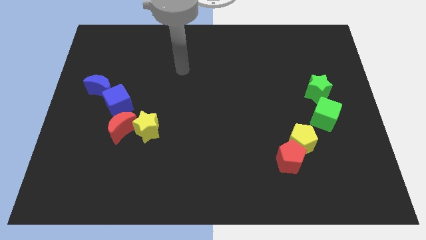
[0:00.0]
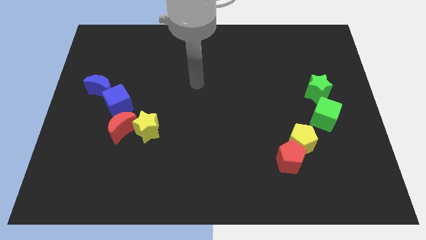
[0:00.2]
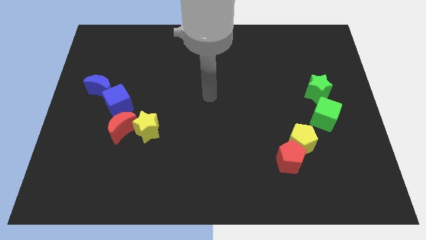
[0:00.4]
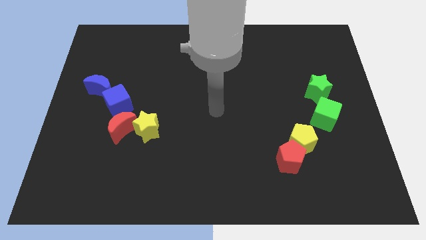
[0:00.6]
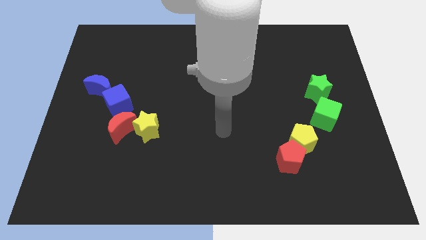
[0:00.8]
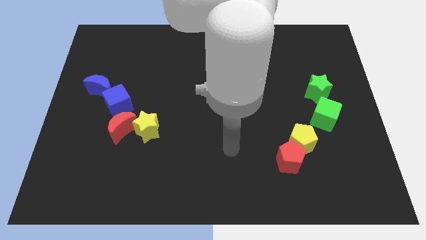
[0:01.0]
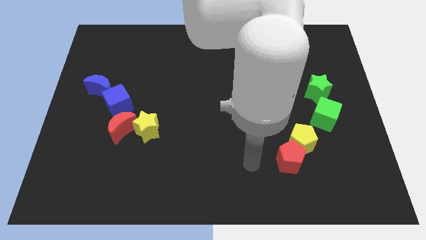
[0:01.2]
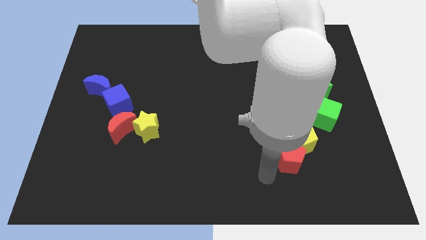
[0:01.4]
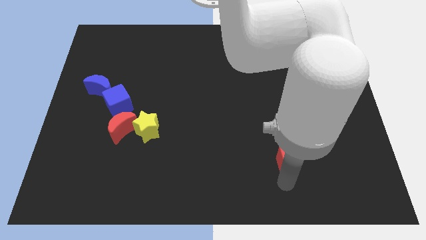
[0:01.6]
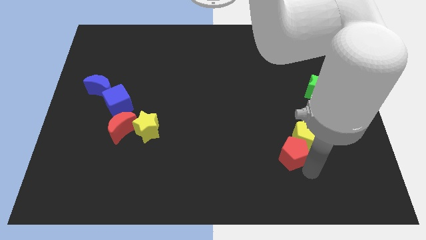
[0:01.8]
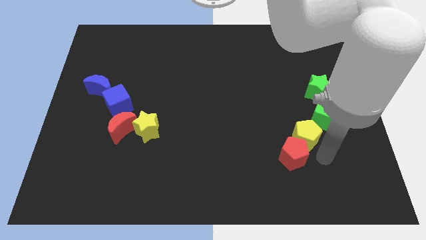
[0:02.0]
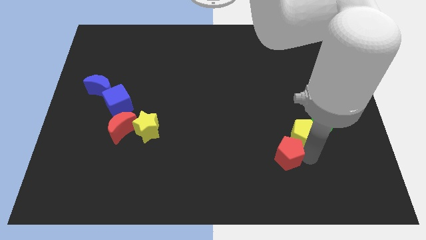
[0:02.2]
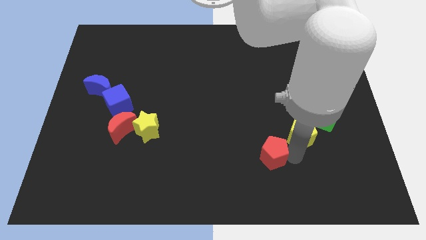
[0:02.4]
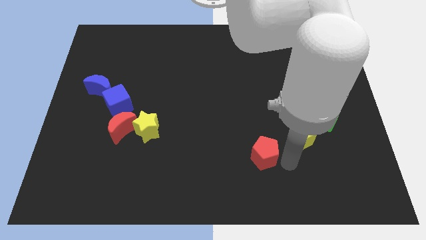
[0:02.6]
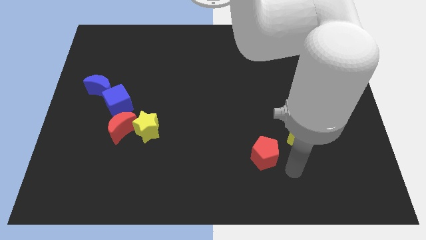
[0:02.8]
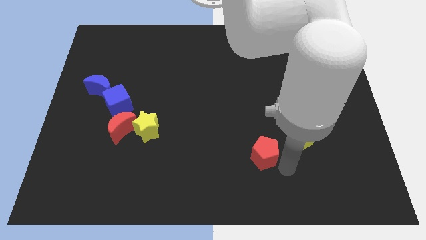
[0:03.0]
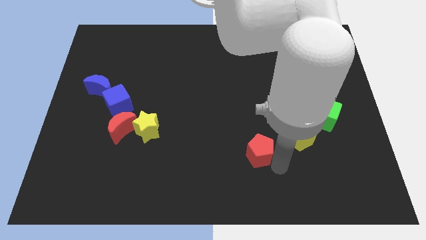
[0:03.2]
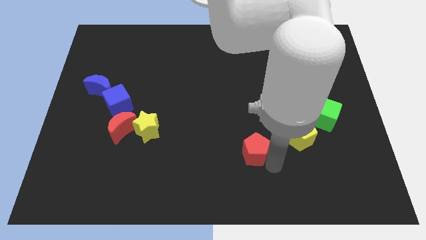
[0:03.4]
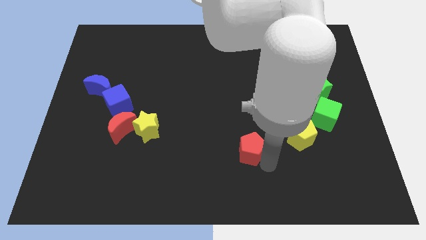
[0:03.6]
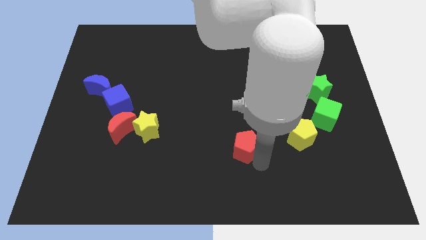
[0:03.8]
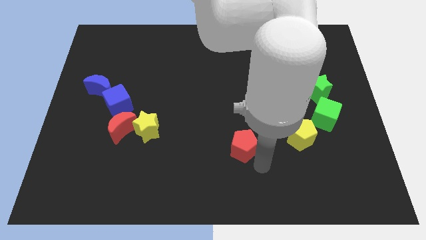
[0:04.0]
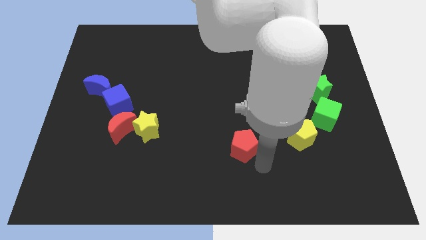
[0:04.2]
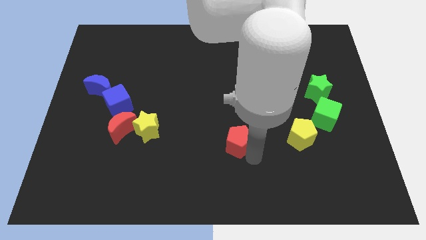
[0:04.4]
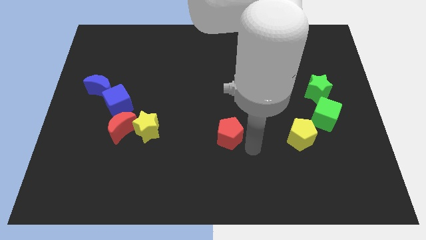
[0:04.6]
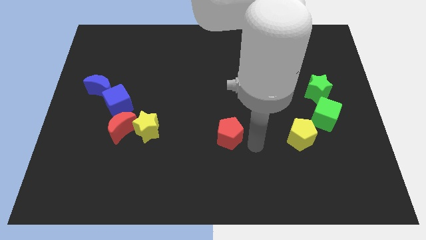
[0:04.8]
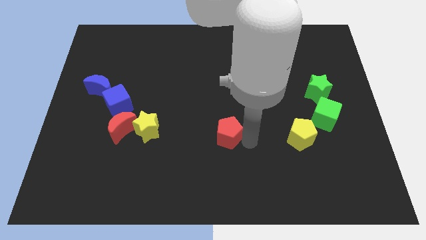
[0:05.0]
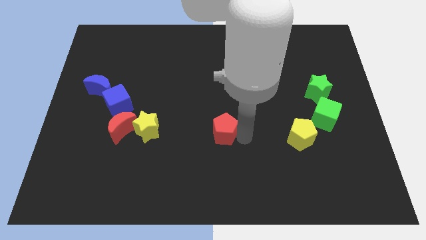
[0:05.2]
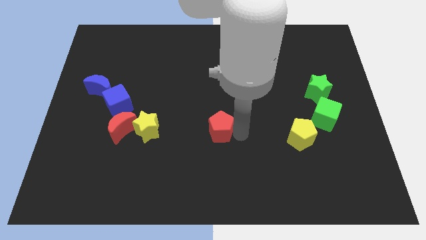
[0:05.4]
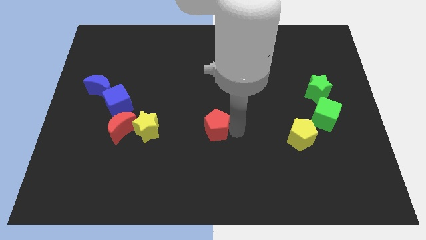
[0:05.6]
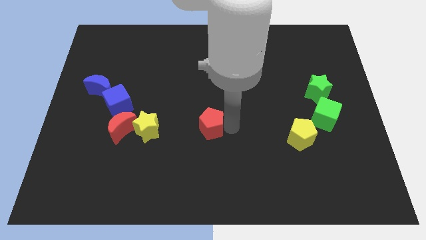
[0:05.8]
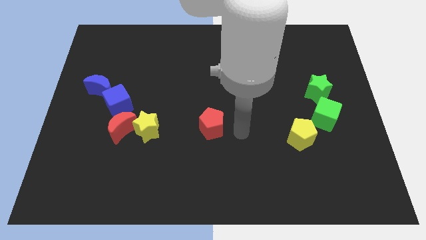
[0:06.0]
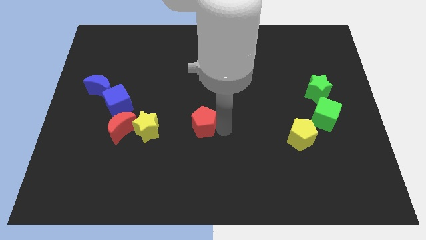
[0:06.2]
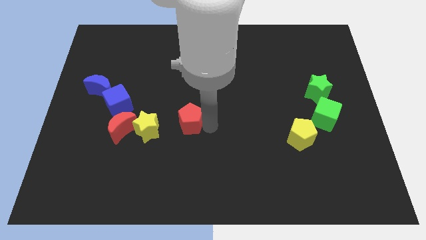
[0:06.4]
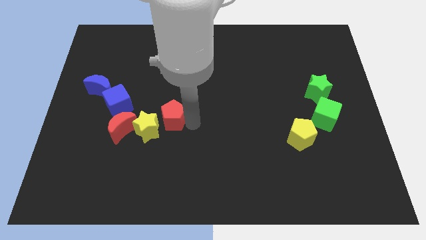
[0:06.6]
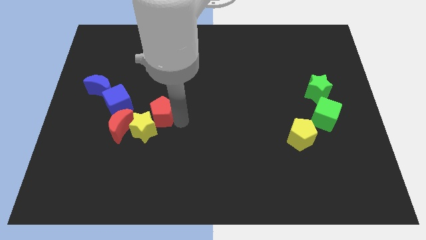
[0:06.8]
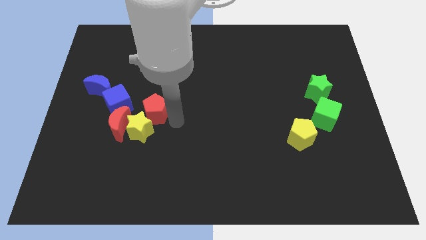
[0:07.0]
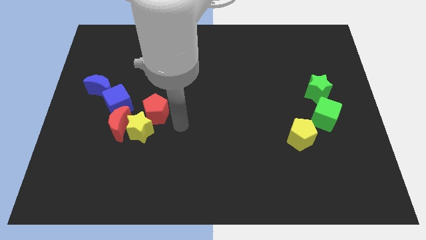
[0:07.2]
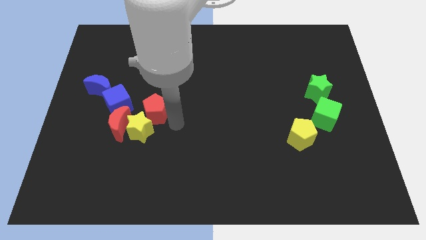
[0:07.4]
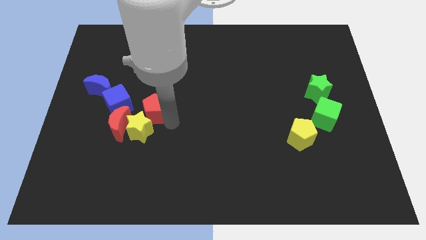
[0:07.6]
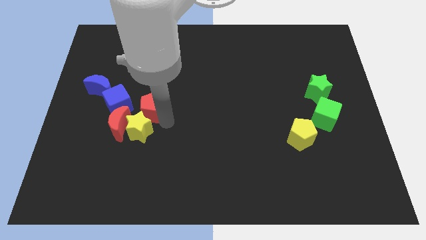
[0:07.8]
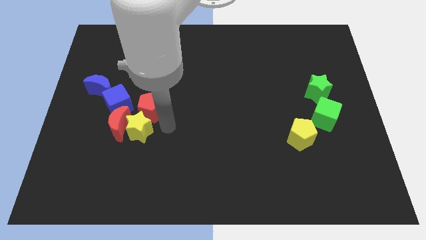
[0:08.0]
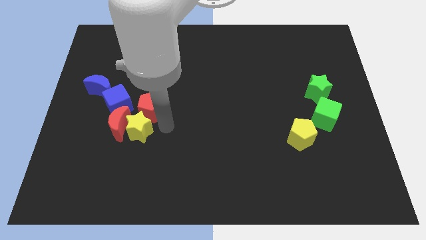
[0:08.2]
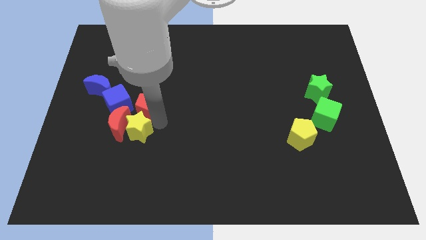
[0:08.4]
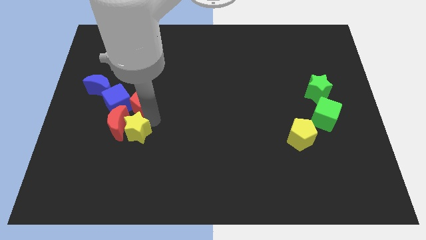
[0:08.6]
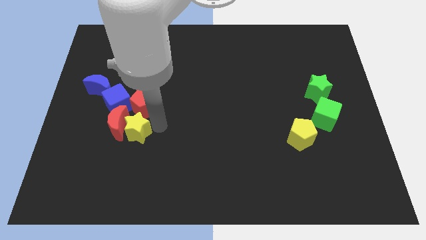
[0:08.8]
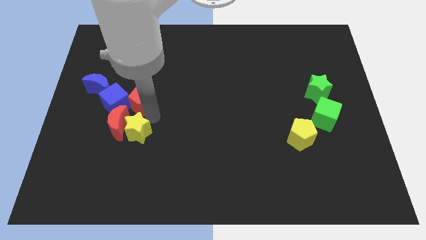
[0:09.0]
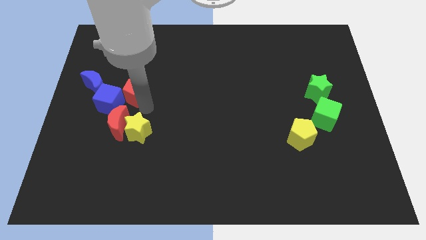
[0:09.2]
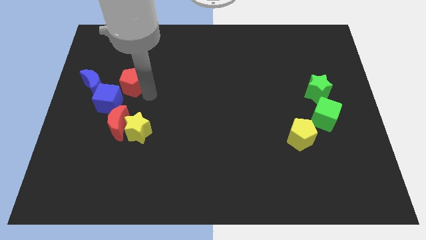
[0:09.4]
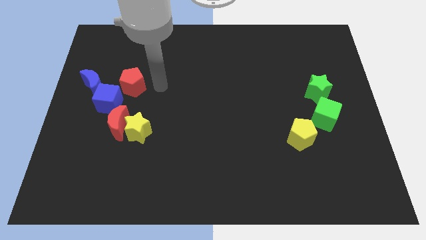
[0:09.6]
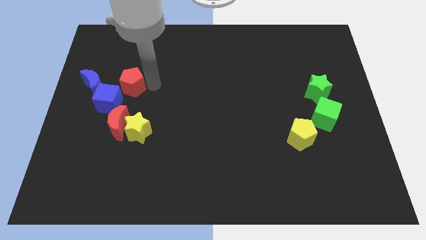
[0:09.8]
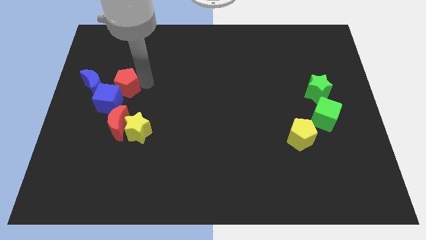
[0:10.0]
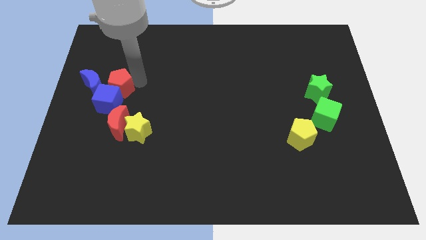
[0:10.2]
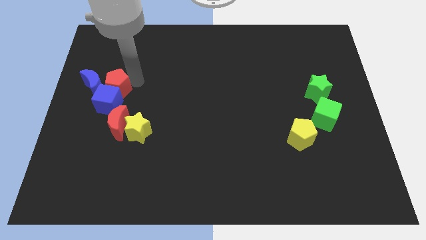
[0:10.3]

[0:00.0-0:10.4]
slide the red pentagon next to the blue moon

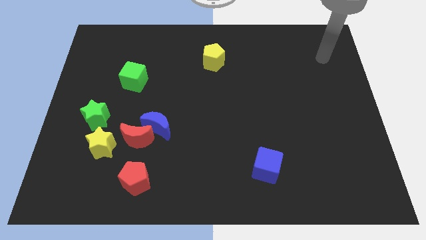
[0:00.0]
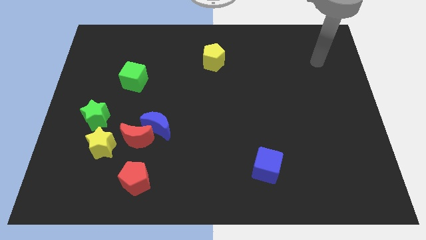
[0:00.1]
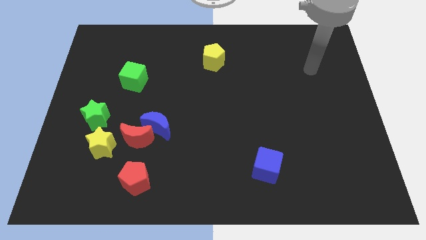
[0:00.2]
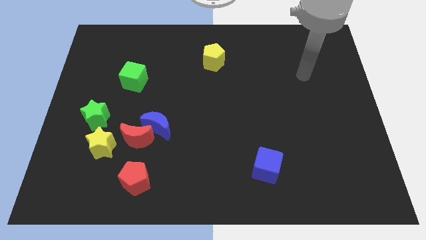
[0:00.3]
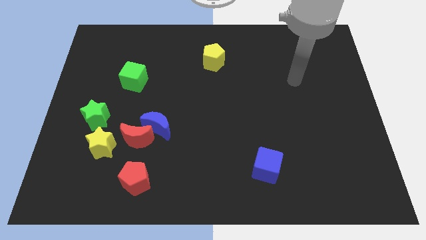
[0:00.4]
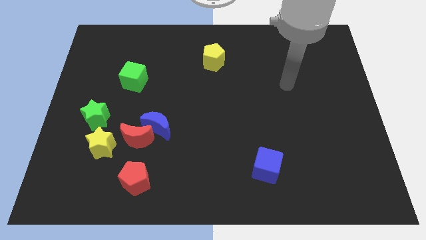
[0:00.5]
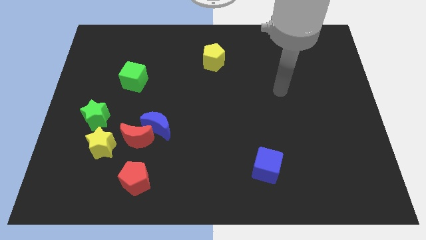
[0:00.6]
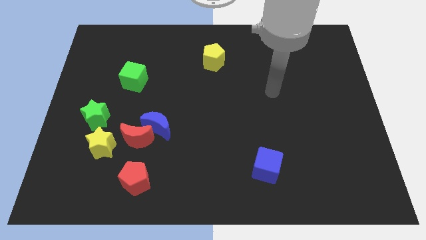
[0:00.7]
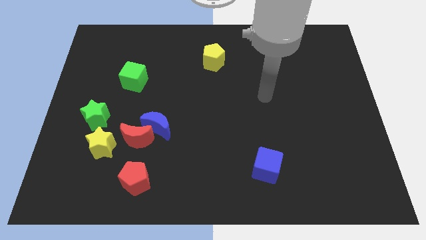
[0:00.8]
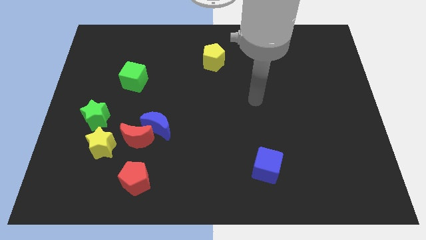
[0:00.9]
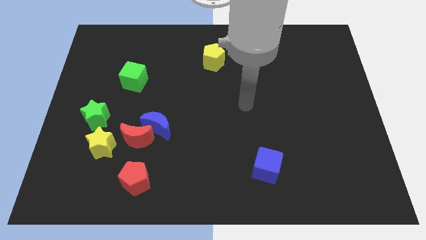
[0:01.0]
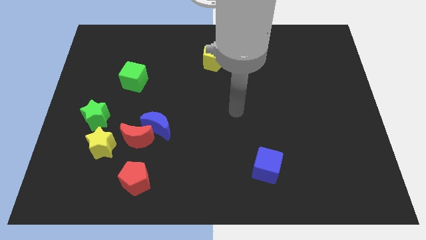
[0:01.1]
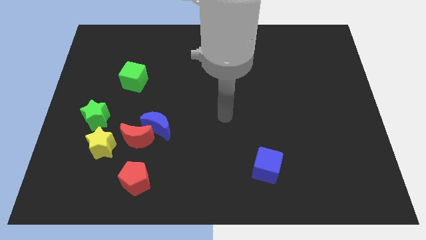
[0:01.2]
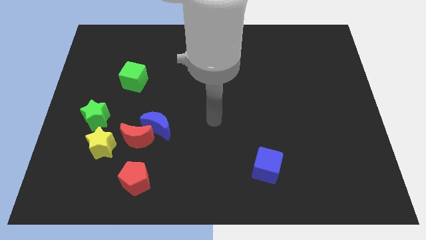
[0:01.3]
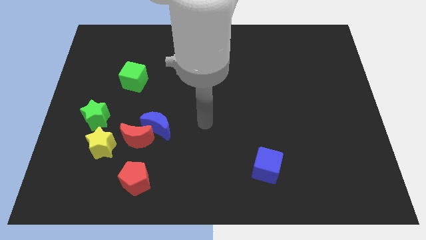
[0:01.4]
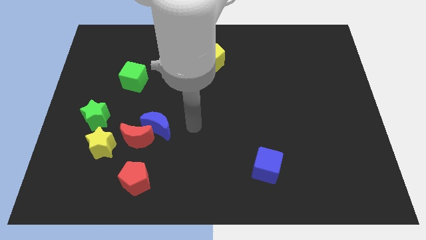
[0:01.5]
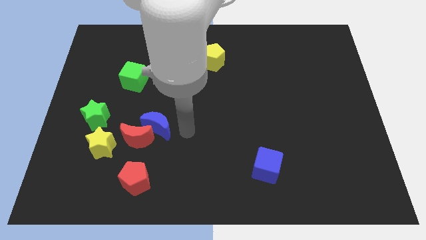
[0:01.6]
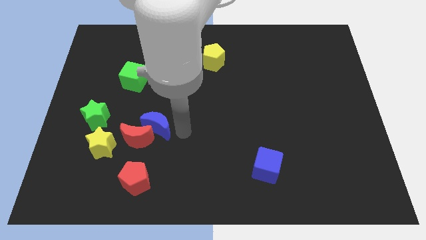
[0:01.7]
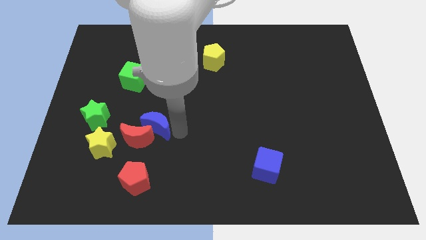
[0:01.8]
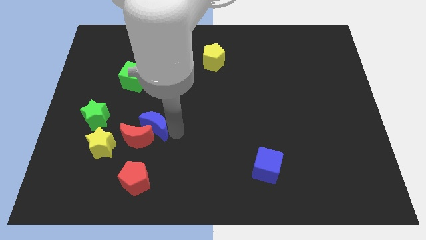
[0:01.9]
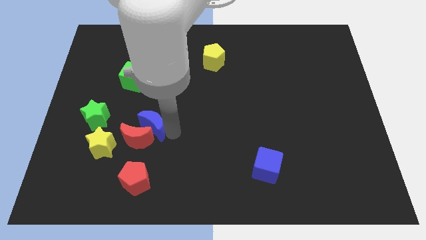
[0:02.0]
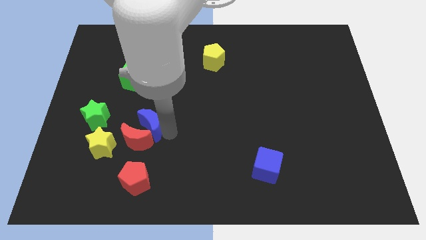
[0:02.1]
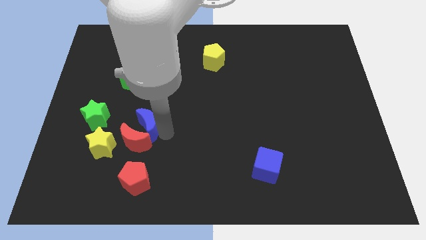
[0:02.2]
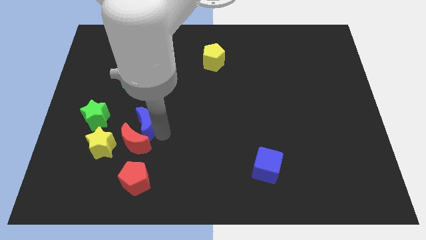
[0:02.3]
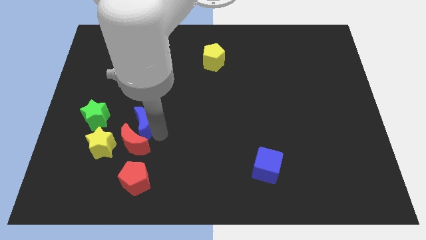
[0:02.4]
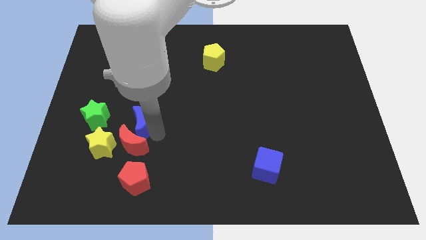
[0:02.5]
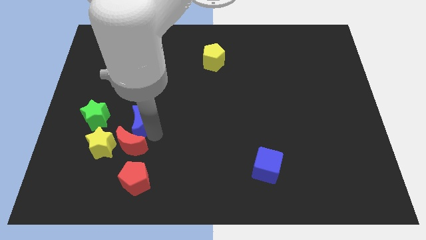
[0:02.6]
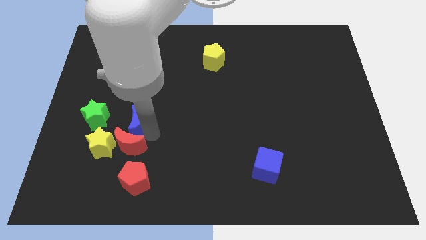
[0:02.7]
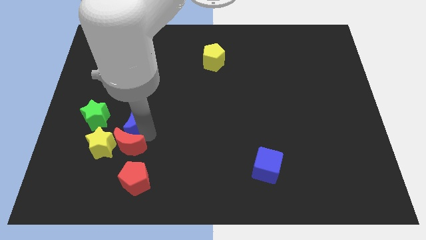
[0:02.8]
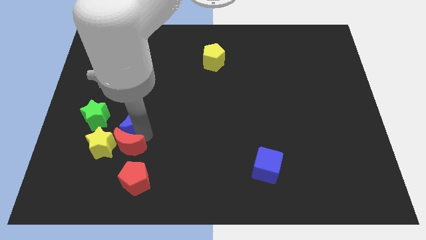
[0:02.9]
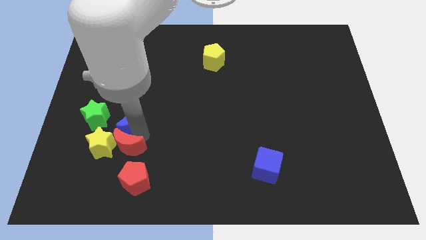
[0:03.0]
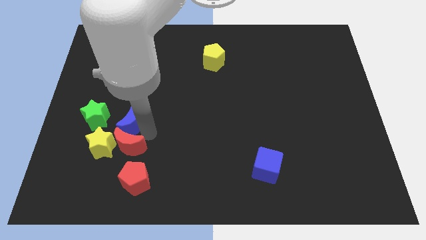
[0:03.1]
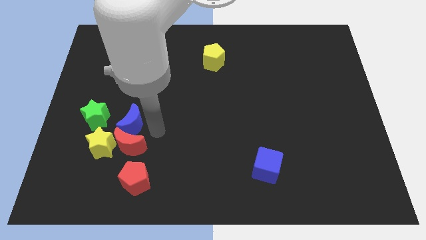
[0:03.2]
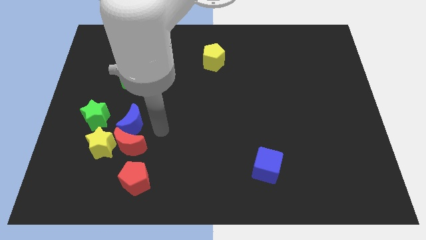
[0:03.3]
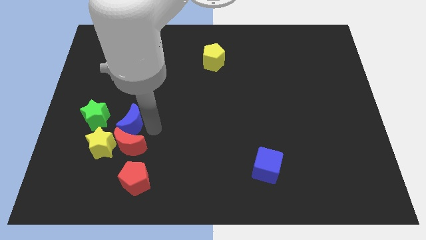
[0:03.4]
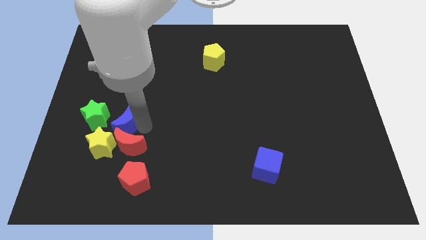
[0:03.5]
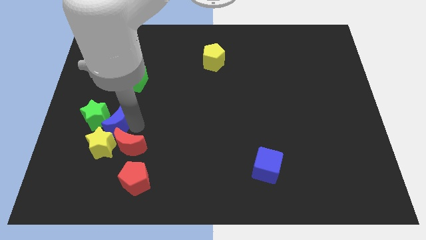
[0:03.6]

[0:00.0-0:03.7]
move the blue moon to the green star
